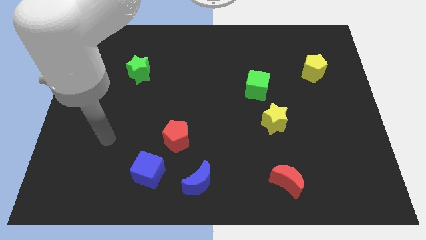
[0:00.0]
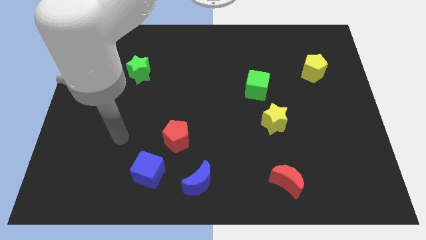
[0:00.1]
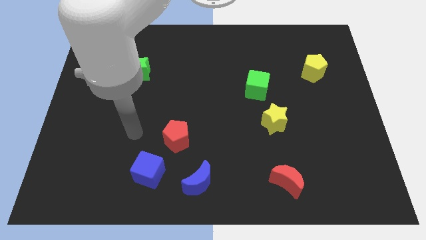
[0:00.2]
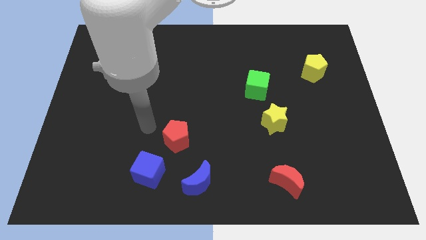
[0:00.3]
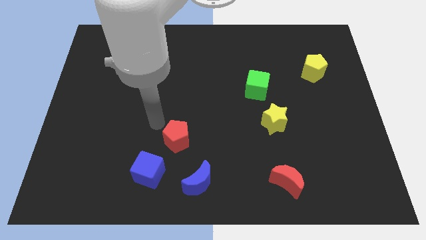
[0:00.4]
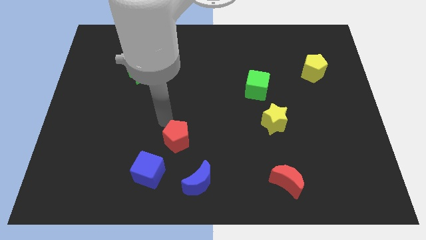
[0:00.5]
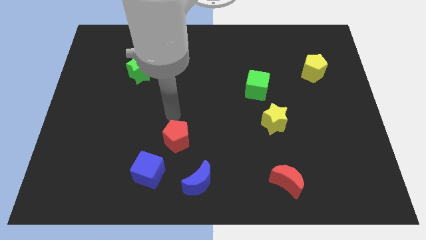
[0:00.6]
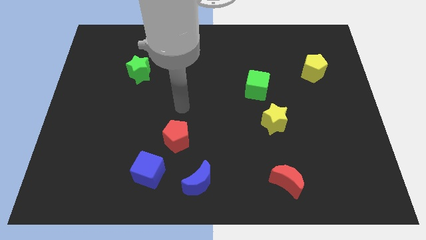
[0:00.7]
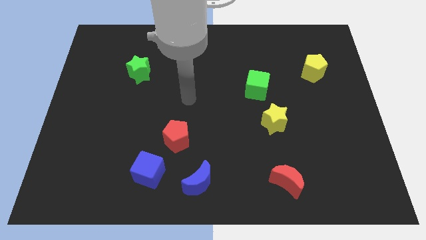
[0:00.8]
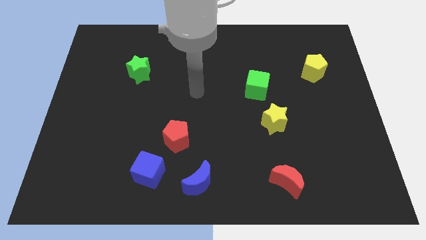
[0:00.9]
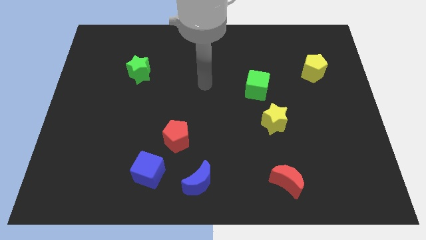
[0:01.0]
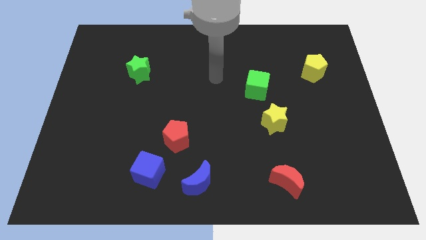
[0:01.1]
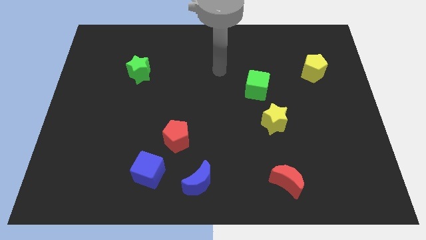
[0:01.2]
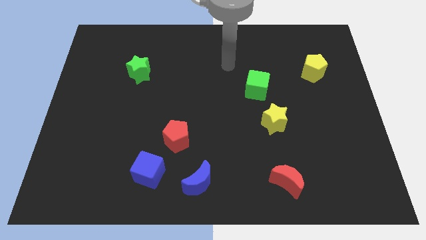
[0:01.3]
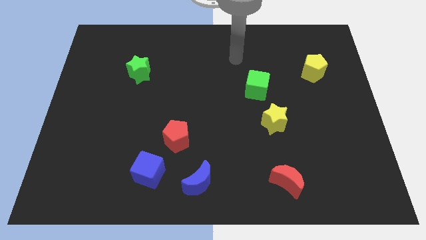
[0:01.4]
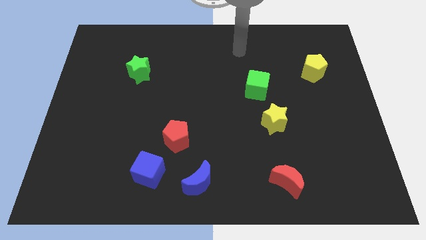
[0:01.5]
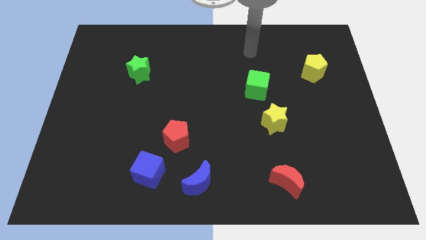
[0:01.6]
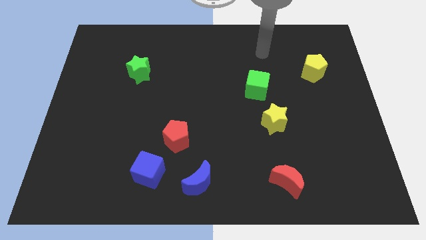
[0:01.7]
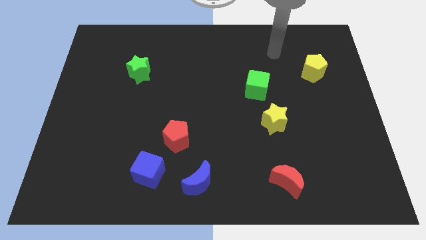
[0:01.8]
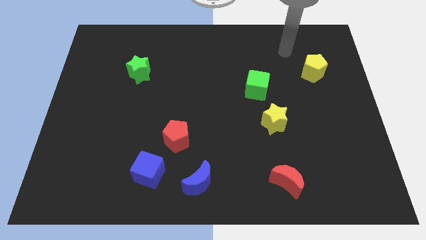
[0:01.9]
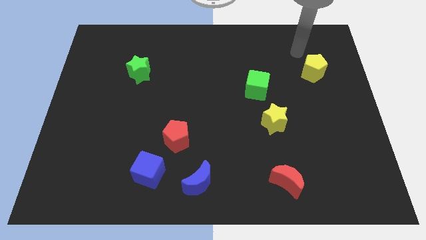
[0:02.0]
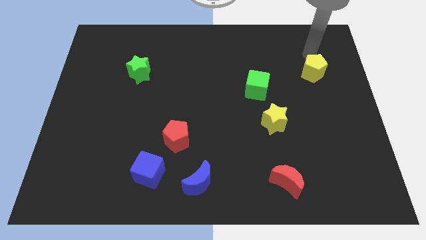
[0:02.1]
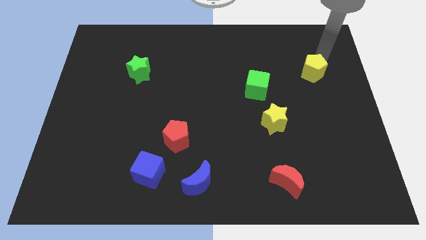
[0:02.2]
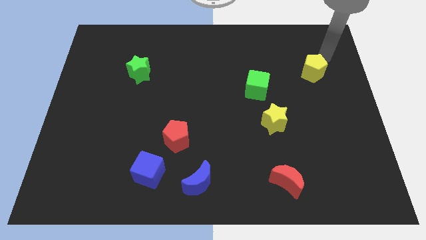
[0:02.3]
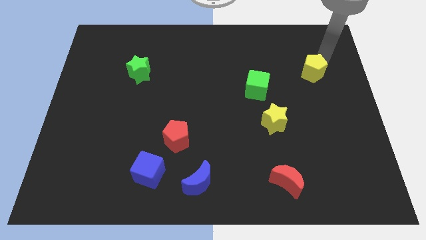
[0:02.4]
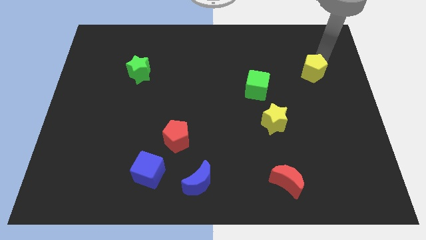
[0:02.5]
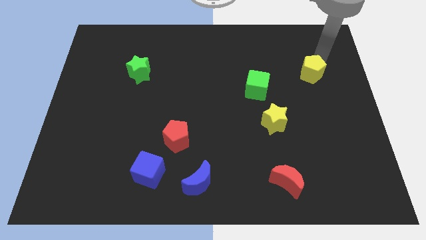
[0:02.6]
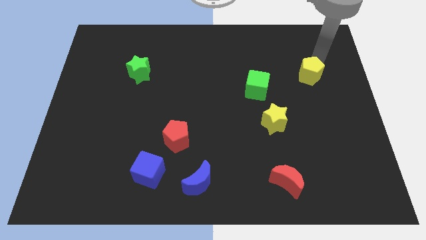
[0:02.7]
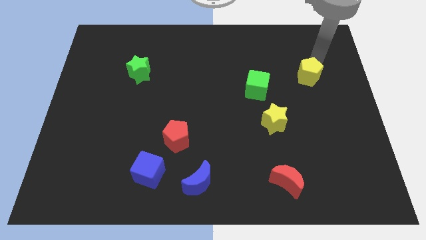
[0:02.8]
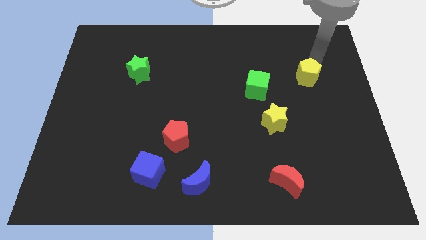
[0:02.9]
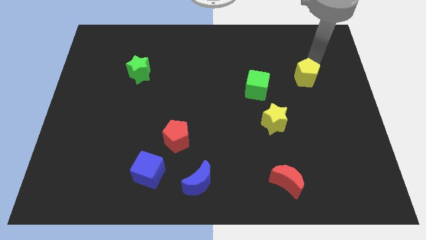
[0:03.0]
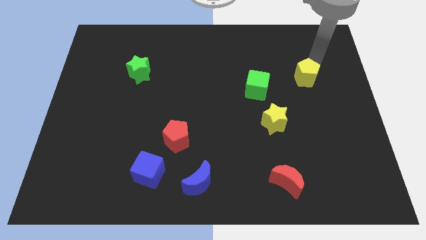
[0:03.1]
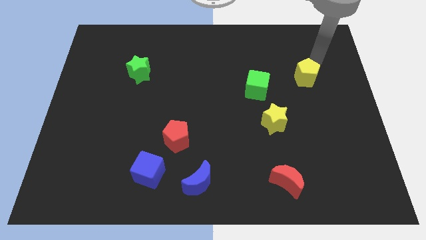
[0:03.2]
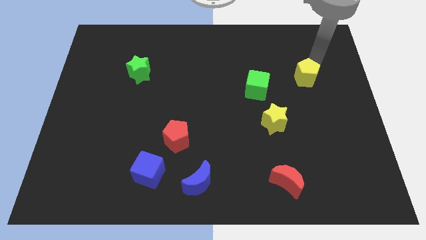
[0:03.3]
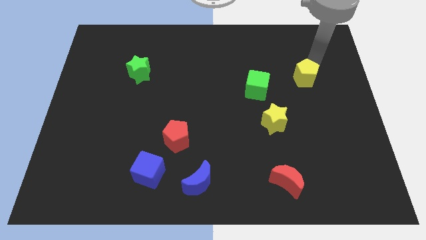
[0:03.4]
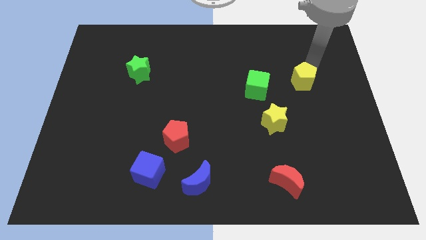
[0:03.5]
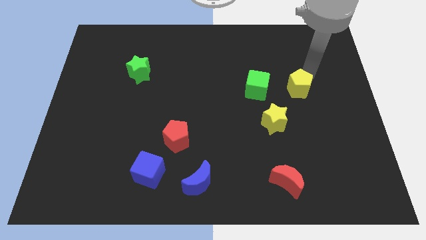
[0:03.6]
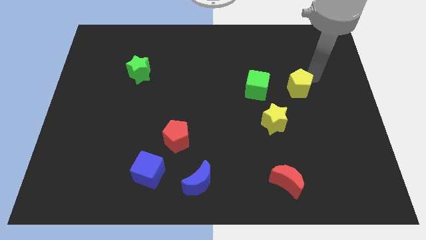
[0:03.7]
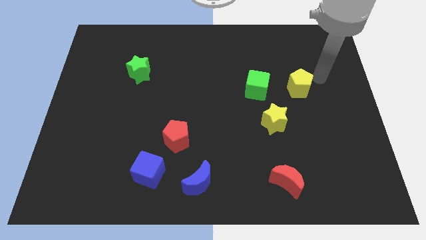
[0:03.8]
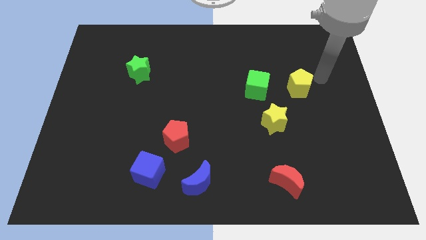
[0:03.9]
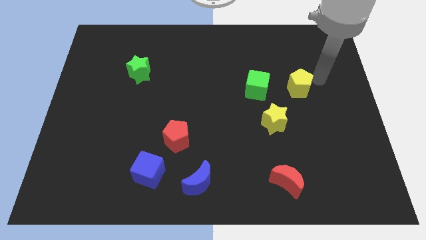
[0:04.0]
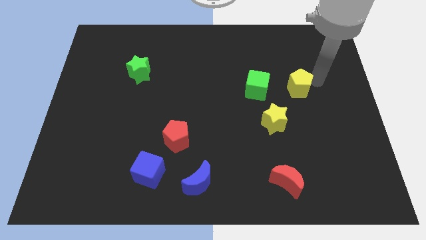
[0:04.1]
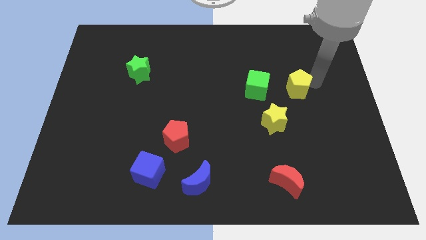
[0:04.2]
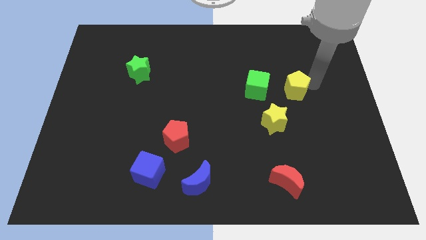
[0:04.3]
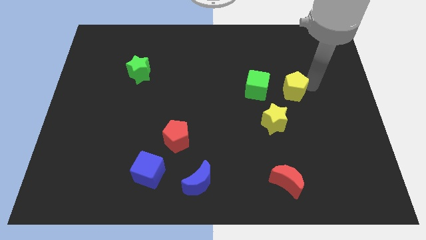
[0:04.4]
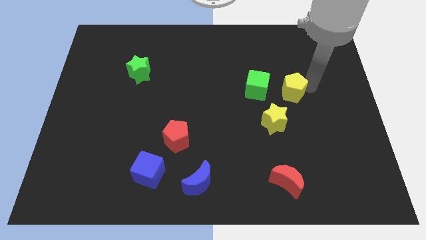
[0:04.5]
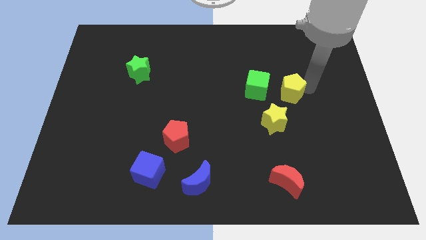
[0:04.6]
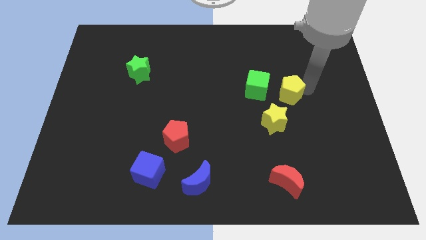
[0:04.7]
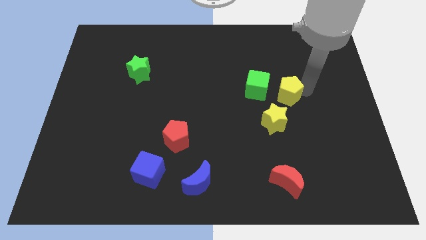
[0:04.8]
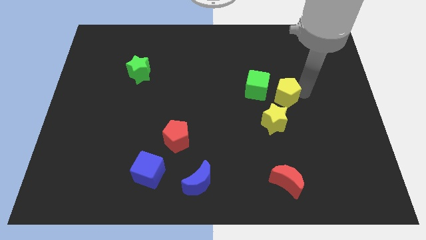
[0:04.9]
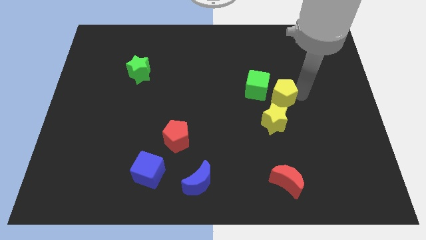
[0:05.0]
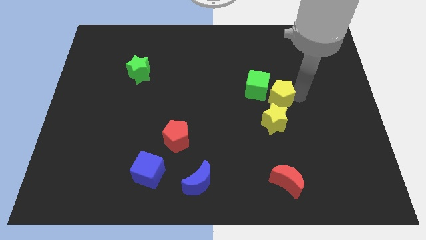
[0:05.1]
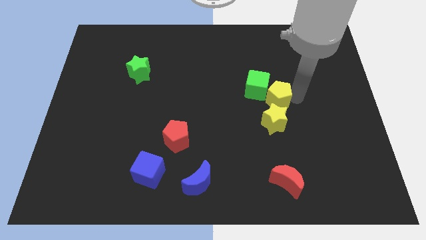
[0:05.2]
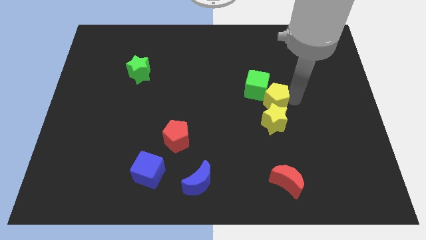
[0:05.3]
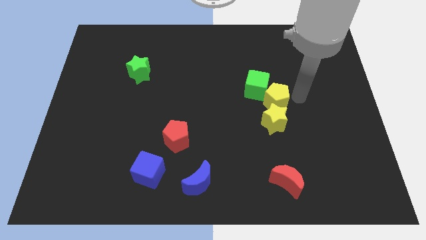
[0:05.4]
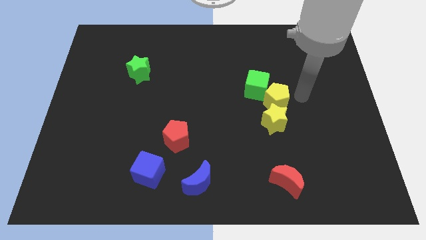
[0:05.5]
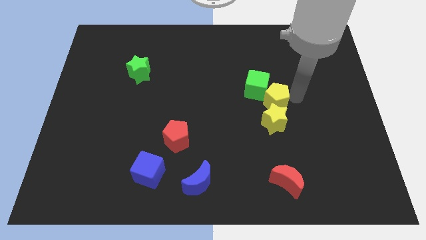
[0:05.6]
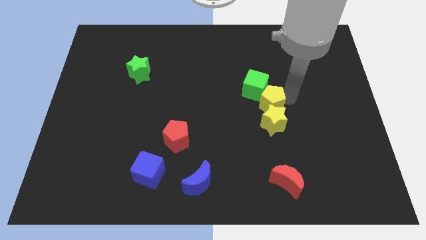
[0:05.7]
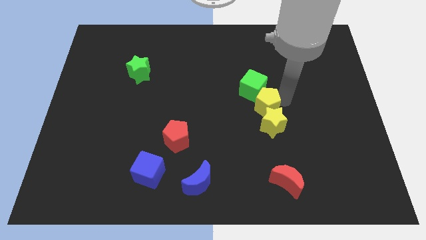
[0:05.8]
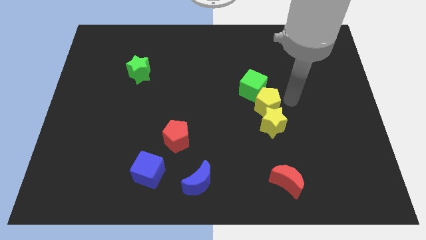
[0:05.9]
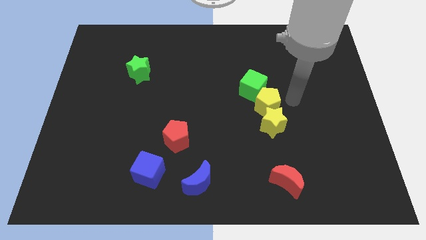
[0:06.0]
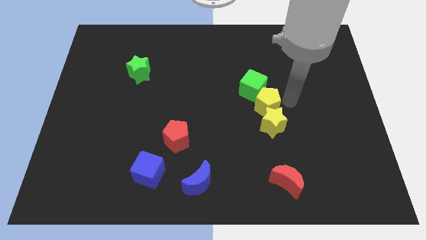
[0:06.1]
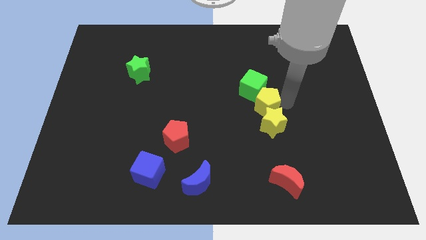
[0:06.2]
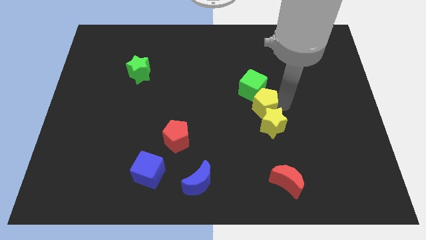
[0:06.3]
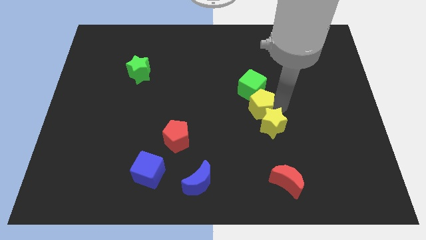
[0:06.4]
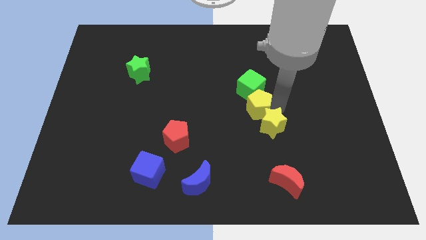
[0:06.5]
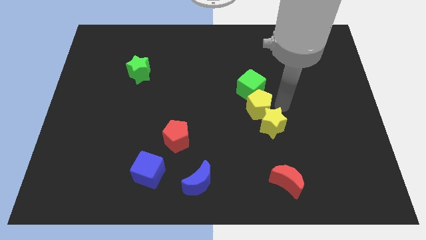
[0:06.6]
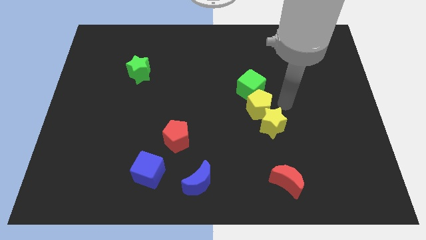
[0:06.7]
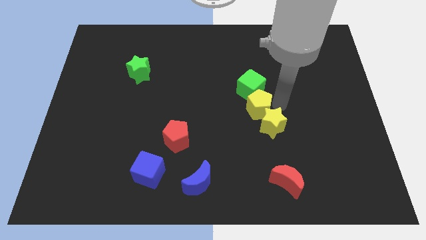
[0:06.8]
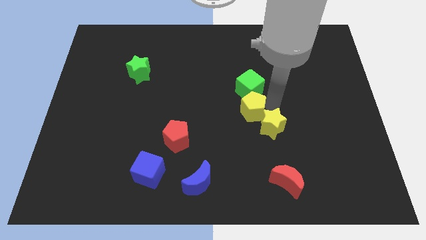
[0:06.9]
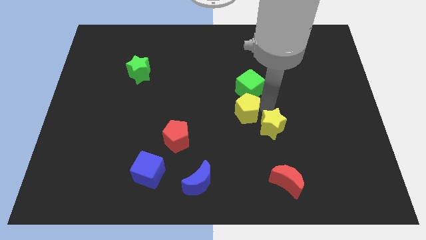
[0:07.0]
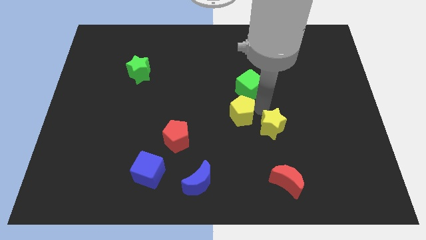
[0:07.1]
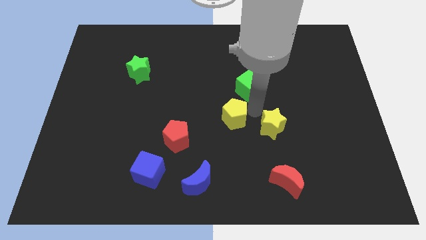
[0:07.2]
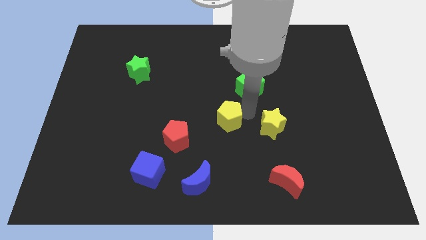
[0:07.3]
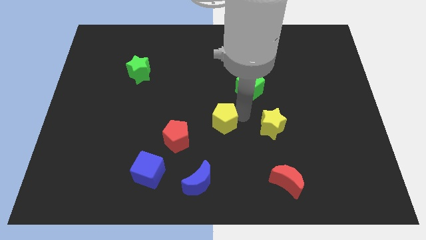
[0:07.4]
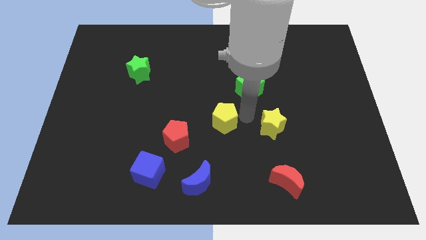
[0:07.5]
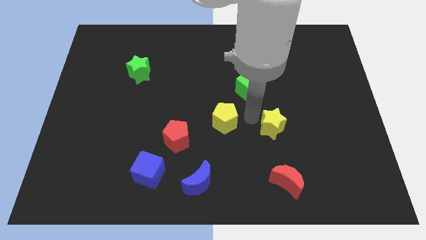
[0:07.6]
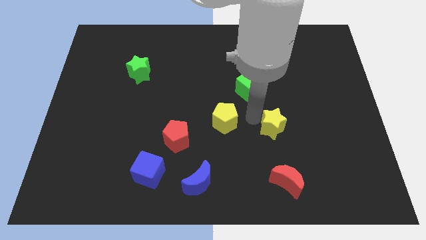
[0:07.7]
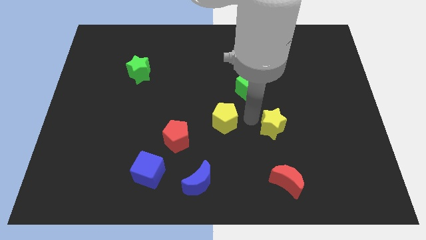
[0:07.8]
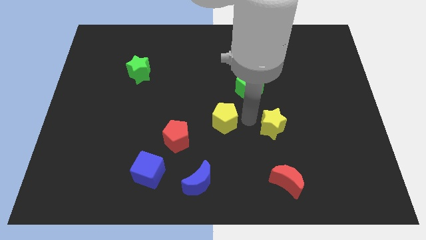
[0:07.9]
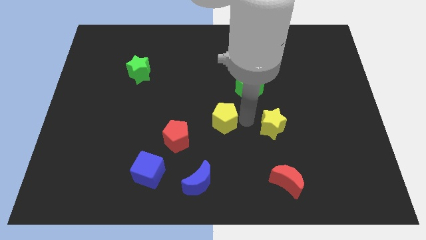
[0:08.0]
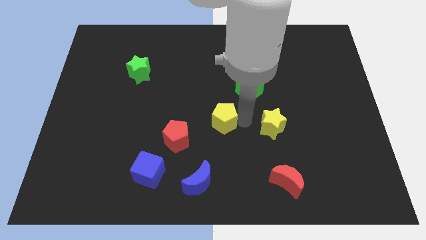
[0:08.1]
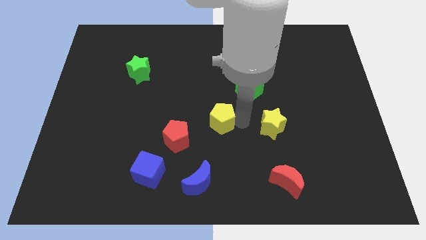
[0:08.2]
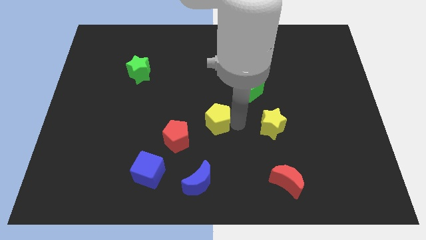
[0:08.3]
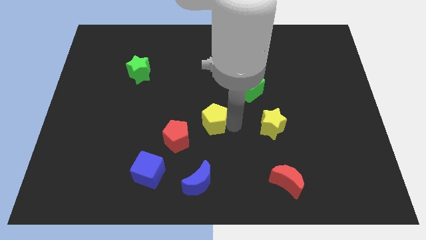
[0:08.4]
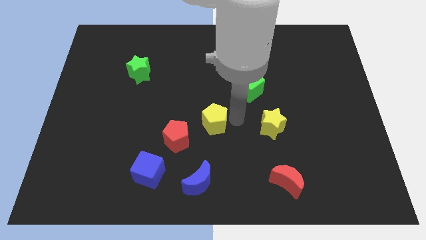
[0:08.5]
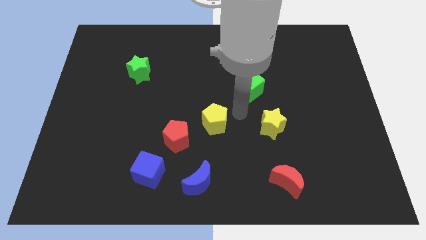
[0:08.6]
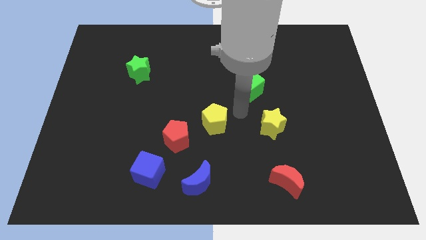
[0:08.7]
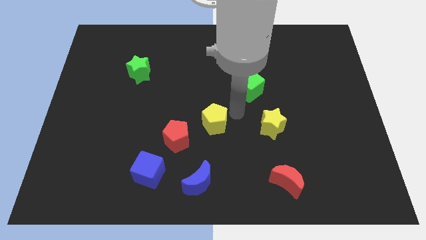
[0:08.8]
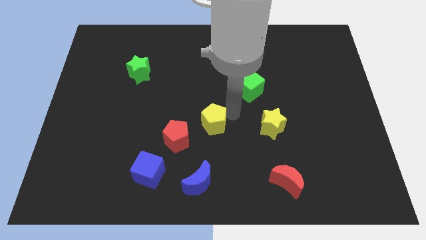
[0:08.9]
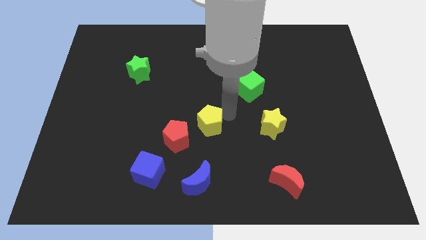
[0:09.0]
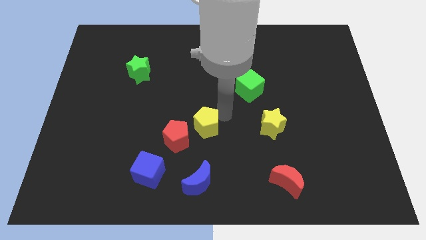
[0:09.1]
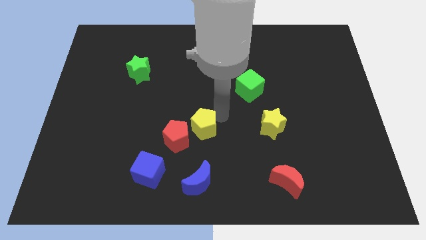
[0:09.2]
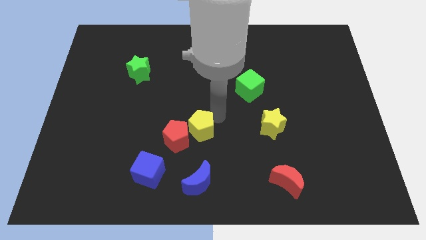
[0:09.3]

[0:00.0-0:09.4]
put the yellow pentagon close to the red pentagon
